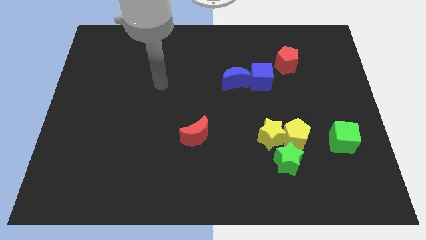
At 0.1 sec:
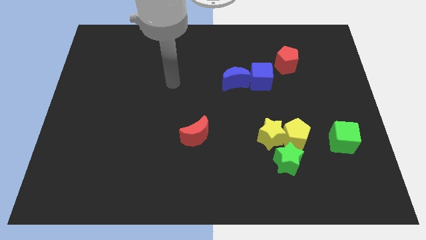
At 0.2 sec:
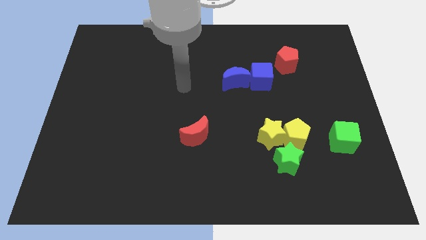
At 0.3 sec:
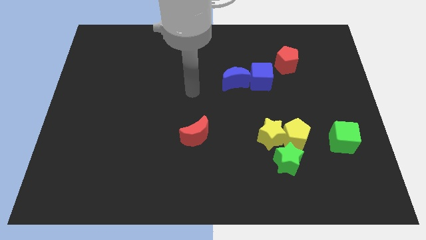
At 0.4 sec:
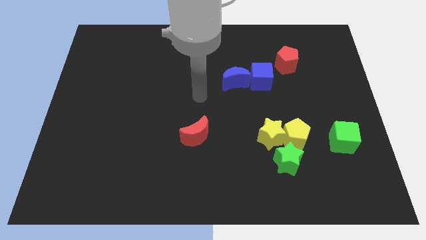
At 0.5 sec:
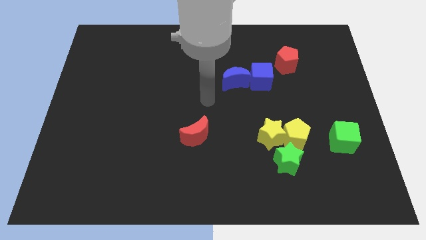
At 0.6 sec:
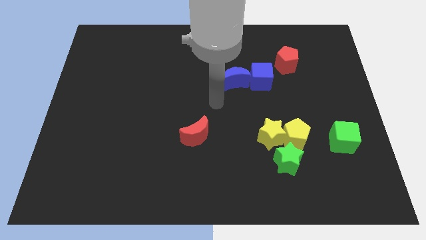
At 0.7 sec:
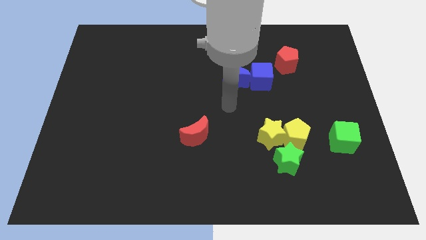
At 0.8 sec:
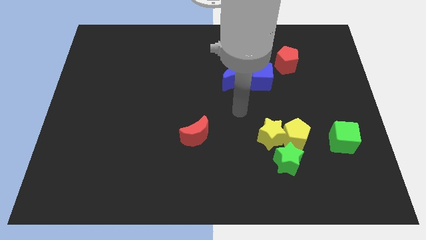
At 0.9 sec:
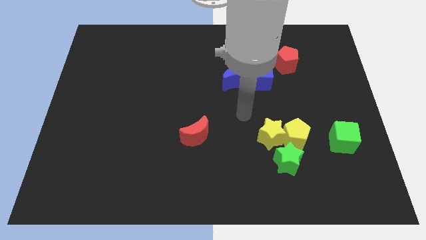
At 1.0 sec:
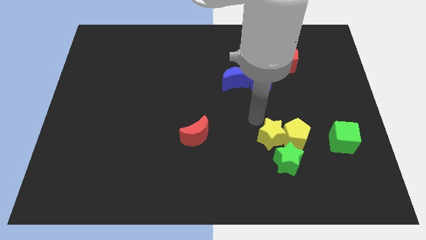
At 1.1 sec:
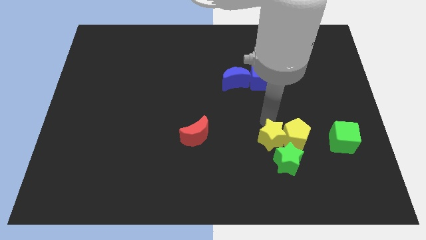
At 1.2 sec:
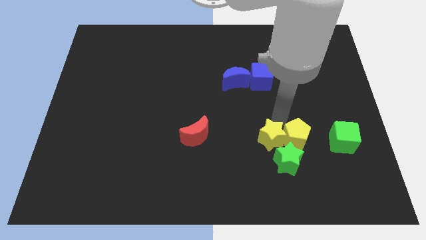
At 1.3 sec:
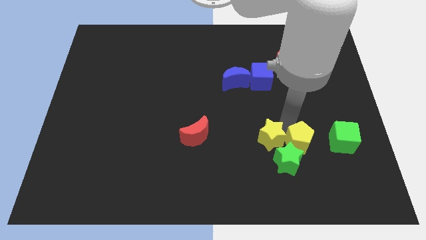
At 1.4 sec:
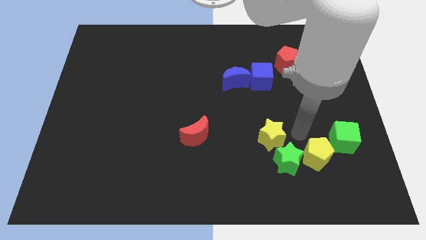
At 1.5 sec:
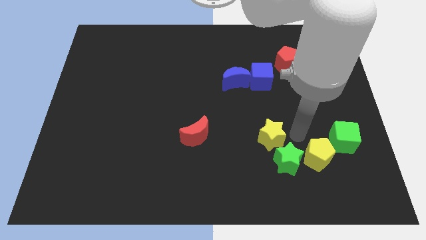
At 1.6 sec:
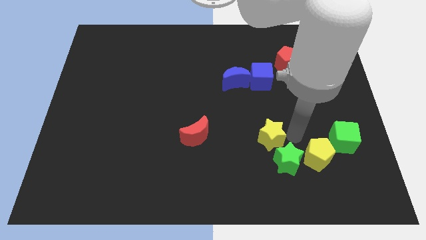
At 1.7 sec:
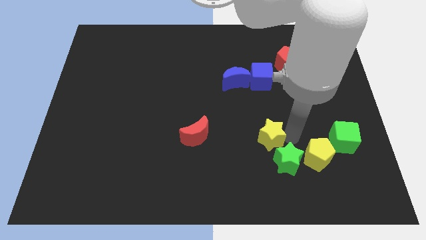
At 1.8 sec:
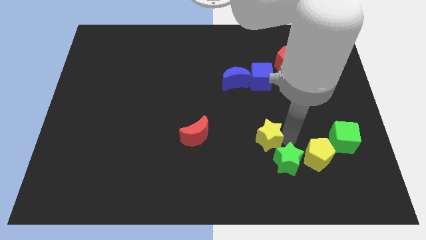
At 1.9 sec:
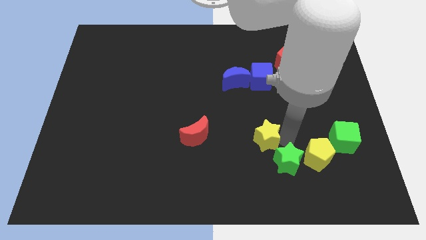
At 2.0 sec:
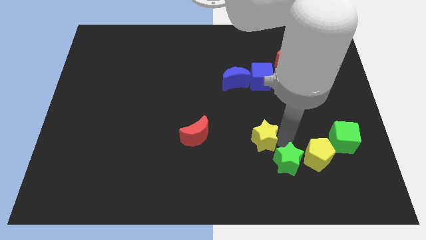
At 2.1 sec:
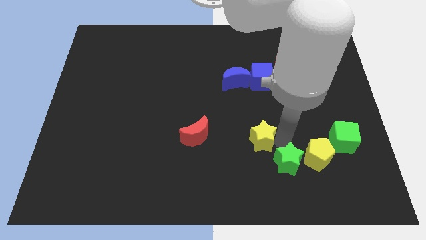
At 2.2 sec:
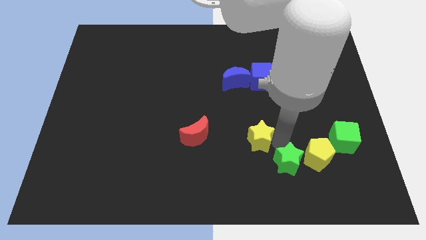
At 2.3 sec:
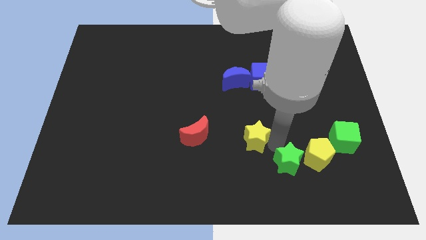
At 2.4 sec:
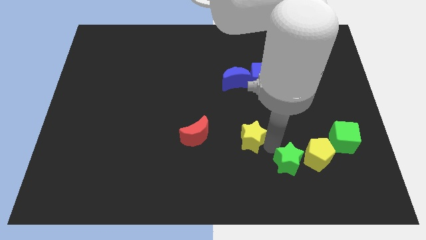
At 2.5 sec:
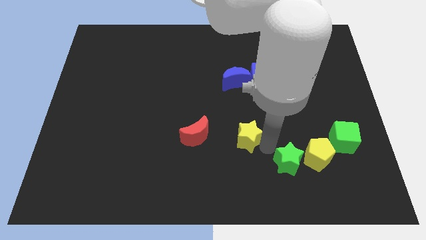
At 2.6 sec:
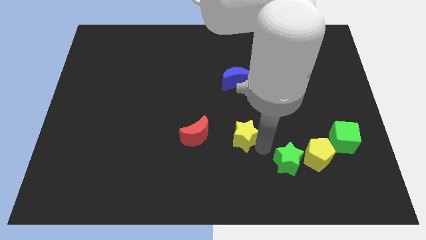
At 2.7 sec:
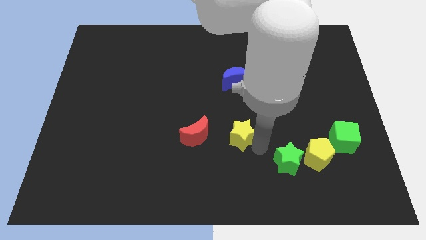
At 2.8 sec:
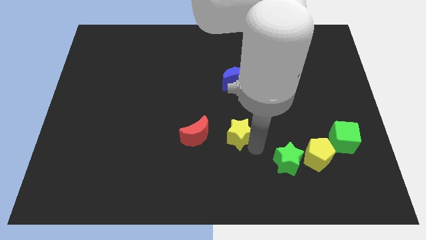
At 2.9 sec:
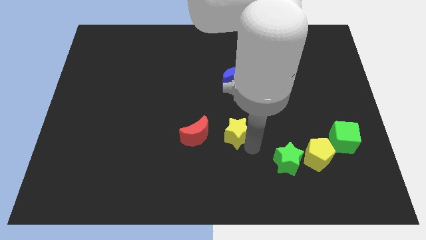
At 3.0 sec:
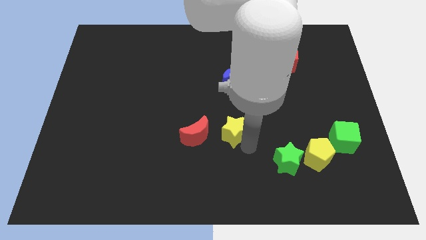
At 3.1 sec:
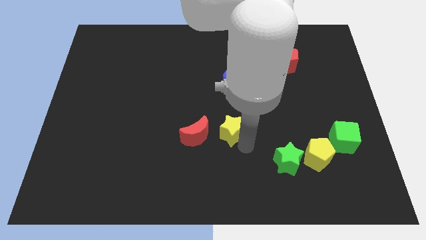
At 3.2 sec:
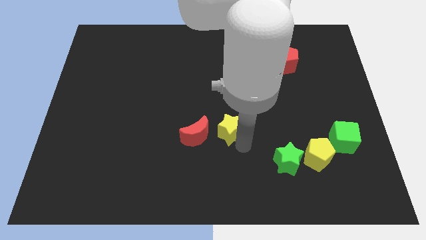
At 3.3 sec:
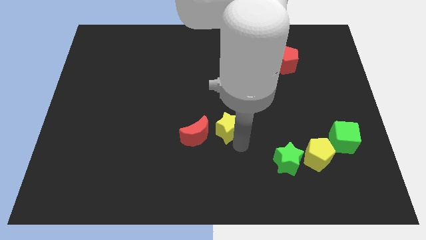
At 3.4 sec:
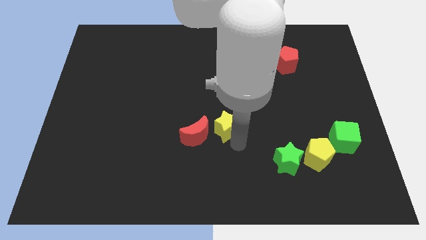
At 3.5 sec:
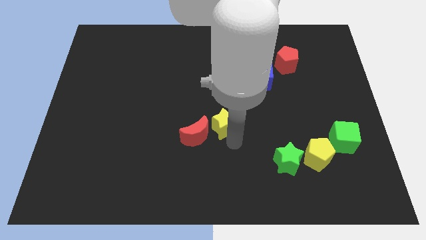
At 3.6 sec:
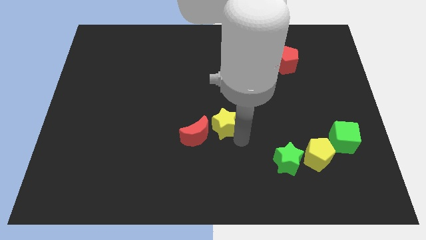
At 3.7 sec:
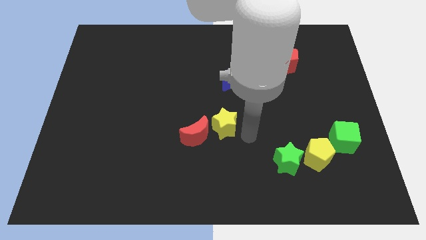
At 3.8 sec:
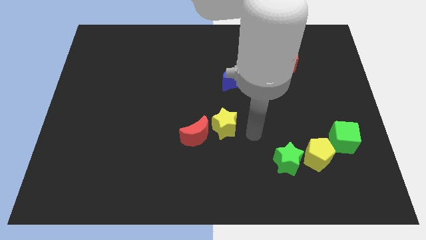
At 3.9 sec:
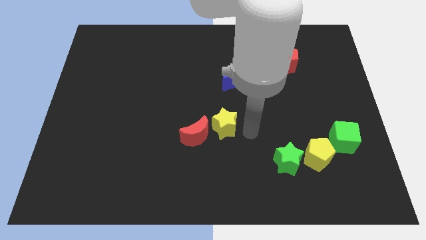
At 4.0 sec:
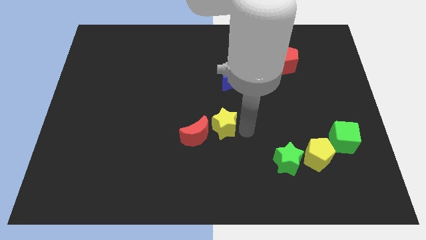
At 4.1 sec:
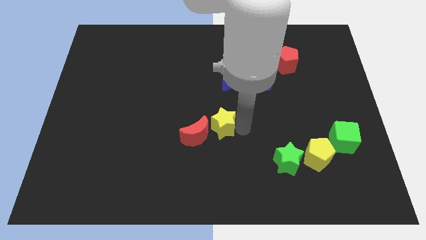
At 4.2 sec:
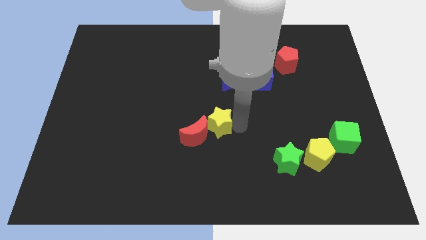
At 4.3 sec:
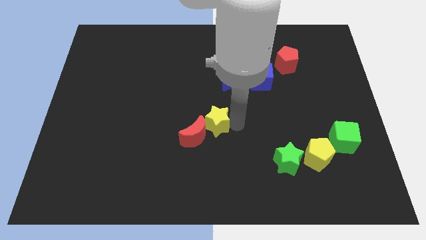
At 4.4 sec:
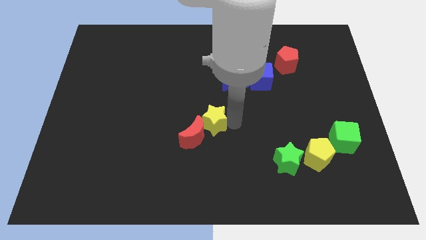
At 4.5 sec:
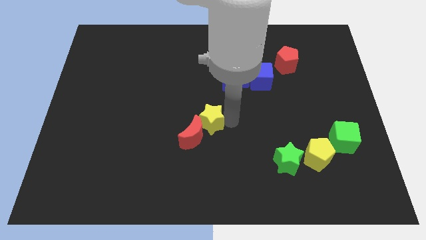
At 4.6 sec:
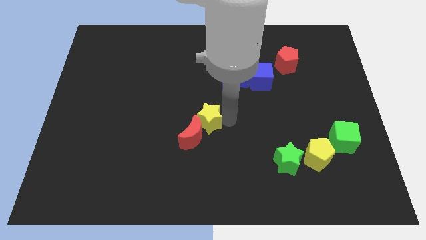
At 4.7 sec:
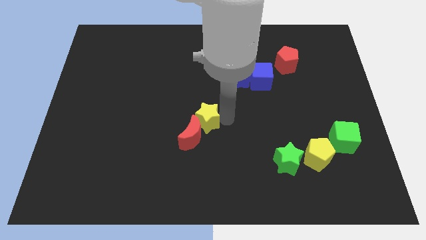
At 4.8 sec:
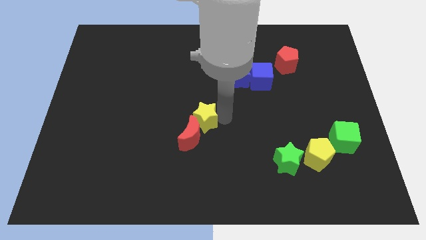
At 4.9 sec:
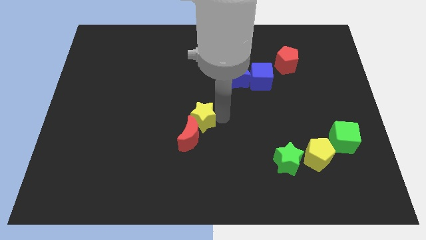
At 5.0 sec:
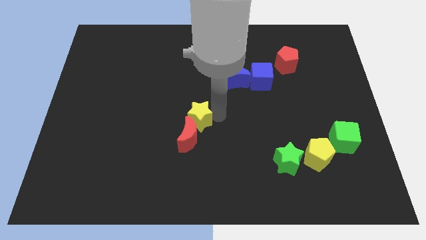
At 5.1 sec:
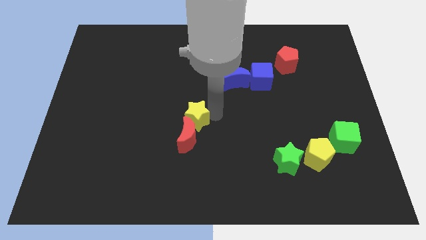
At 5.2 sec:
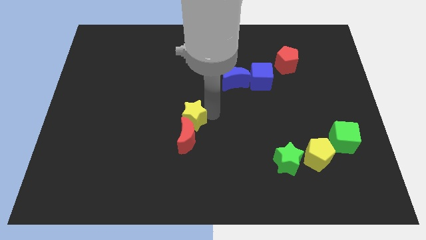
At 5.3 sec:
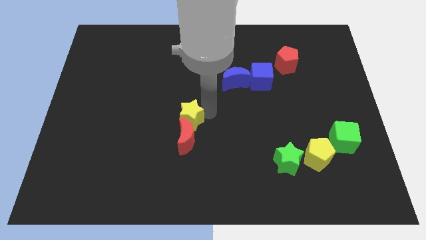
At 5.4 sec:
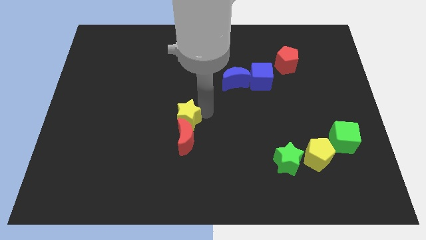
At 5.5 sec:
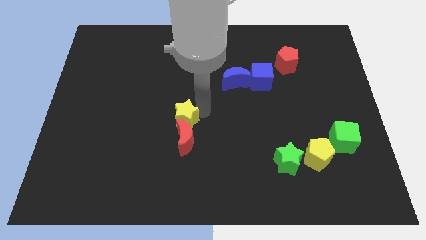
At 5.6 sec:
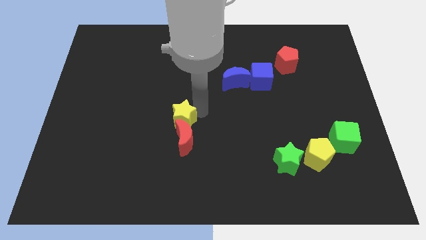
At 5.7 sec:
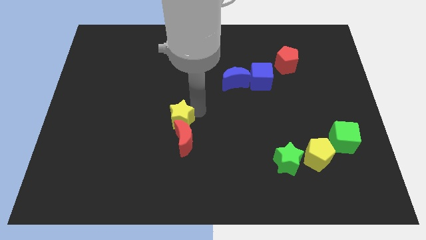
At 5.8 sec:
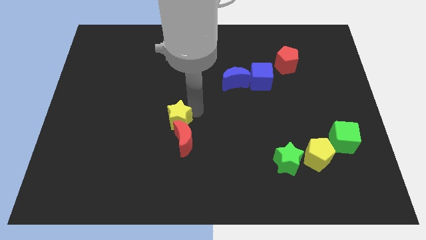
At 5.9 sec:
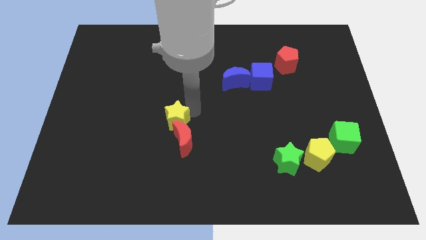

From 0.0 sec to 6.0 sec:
move the yellow star to the left

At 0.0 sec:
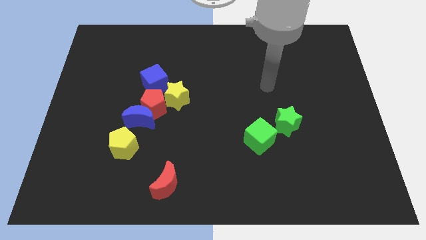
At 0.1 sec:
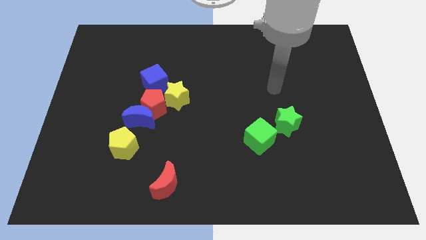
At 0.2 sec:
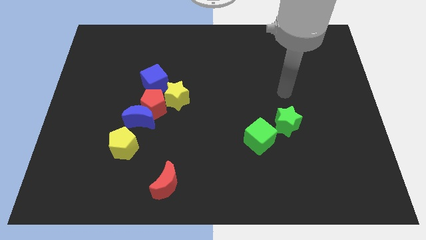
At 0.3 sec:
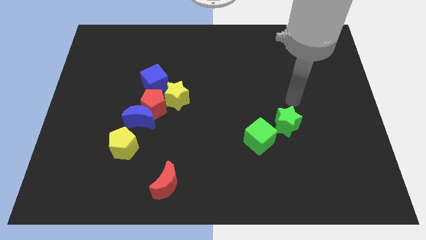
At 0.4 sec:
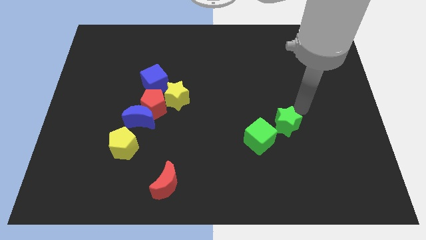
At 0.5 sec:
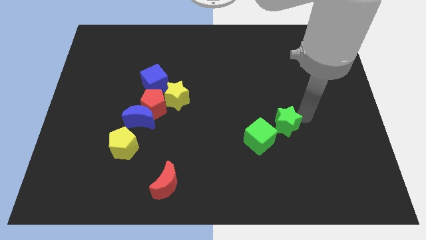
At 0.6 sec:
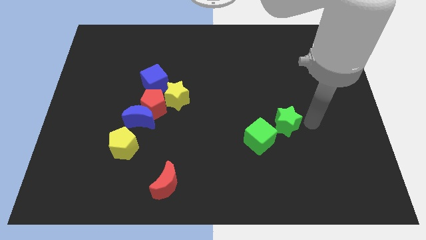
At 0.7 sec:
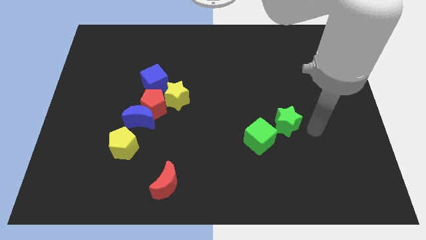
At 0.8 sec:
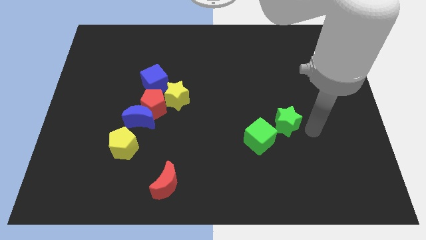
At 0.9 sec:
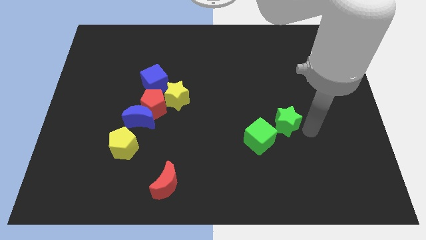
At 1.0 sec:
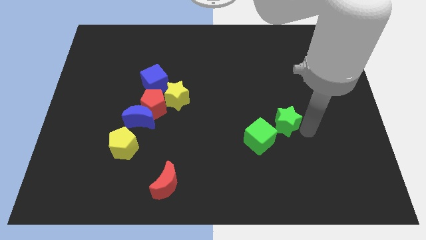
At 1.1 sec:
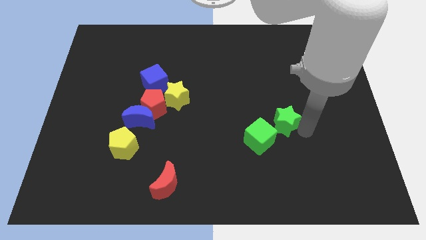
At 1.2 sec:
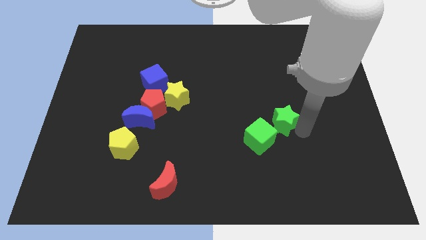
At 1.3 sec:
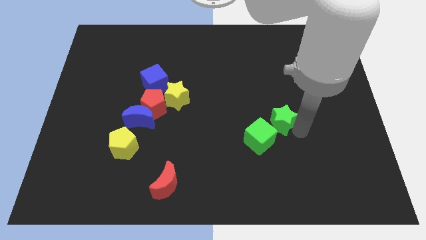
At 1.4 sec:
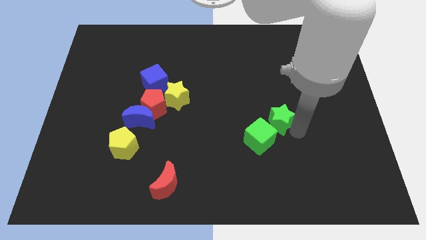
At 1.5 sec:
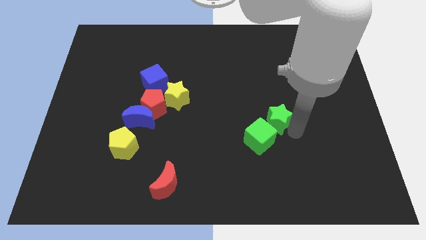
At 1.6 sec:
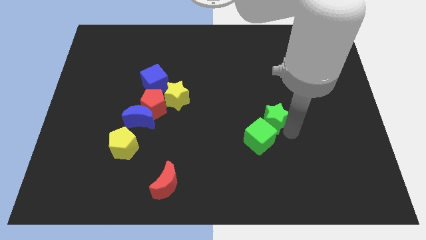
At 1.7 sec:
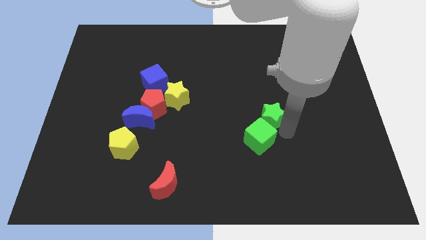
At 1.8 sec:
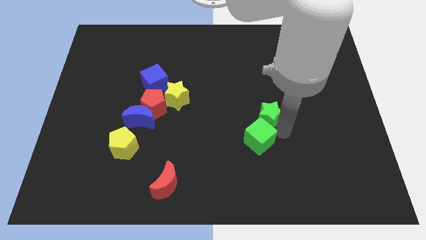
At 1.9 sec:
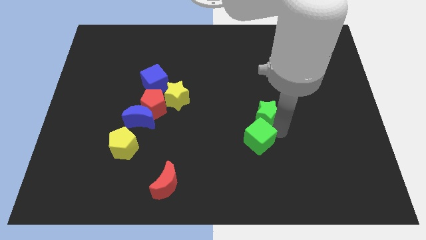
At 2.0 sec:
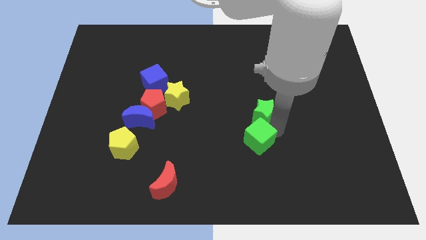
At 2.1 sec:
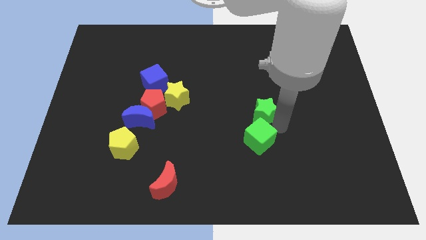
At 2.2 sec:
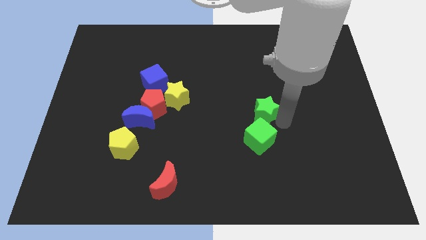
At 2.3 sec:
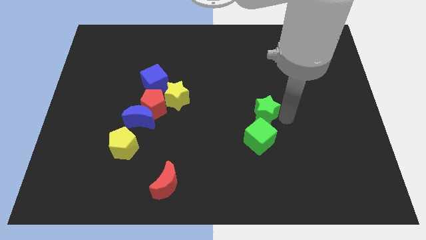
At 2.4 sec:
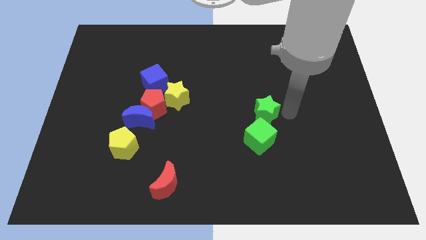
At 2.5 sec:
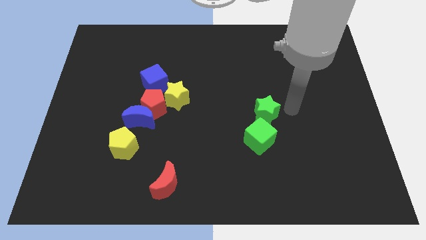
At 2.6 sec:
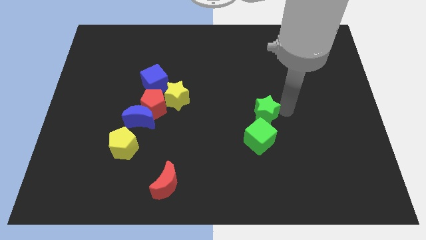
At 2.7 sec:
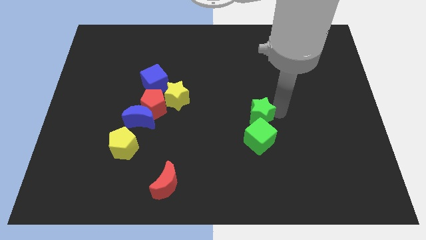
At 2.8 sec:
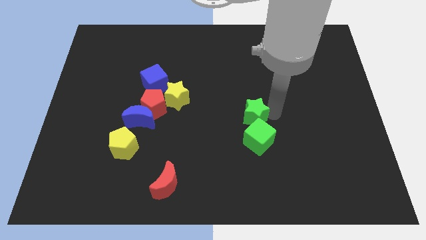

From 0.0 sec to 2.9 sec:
move the green star to the left slightly
